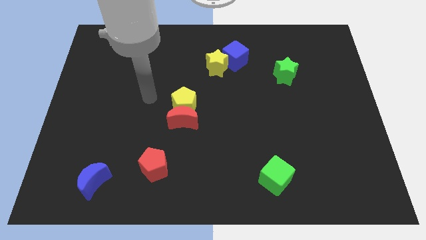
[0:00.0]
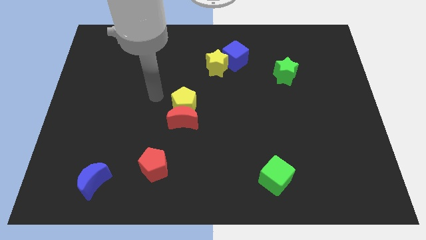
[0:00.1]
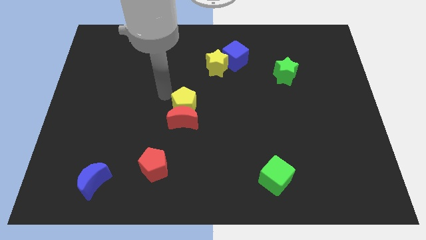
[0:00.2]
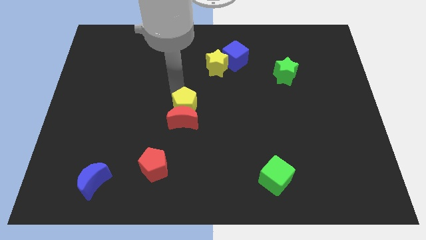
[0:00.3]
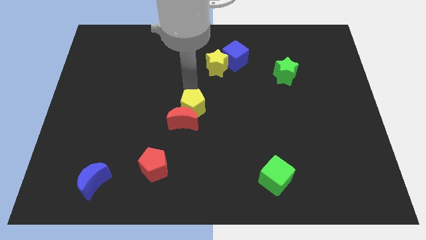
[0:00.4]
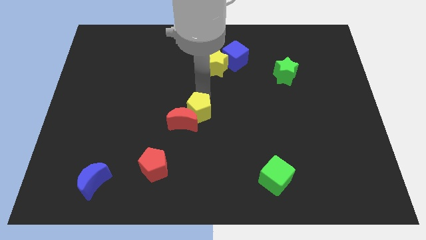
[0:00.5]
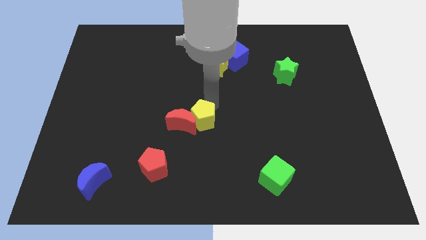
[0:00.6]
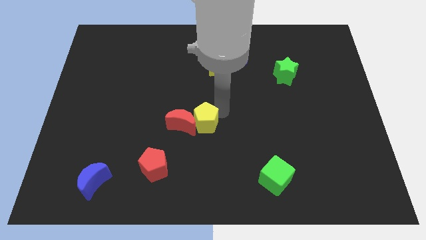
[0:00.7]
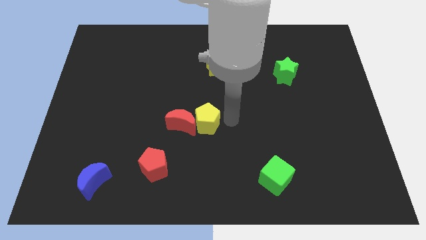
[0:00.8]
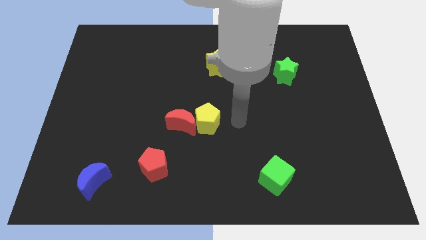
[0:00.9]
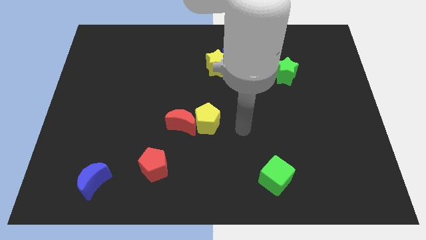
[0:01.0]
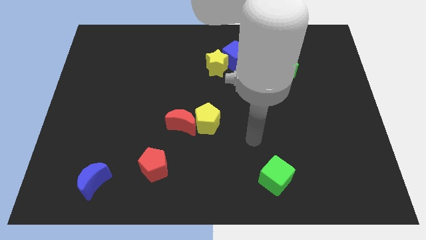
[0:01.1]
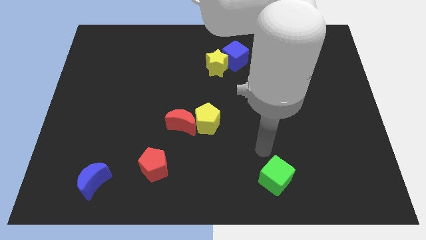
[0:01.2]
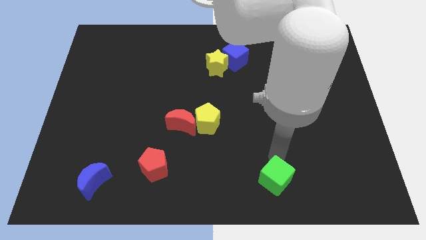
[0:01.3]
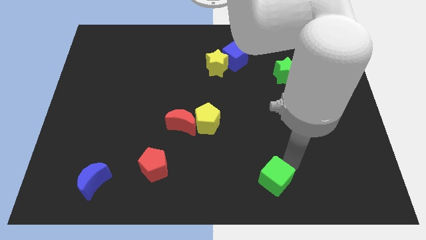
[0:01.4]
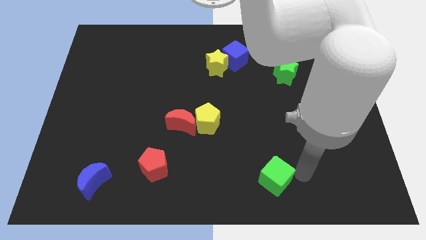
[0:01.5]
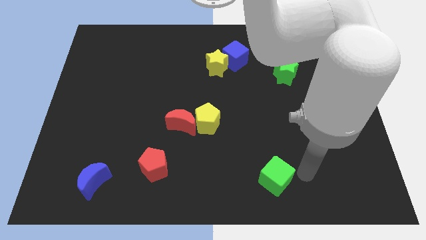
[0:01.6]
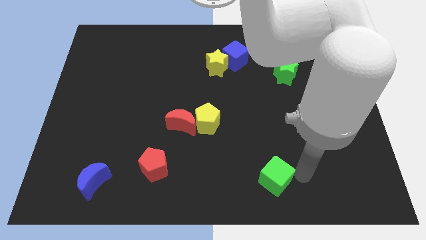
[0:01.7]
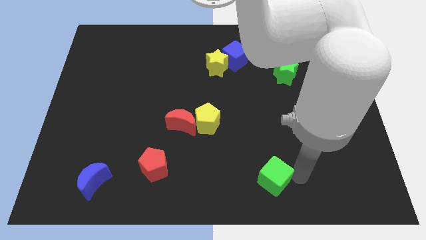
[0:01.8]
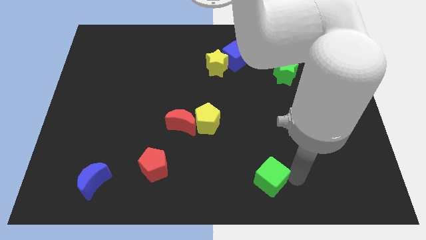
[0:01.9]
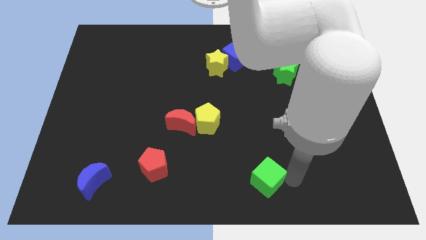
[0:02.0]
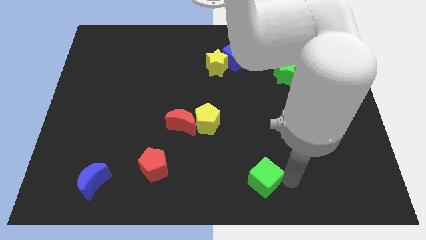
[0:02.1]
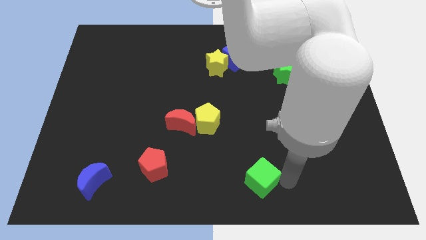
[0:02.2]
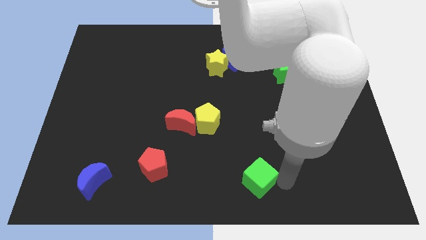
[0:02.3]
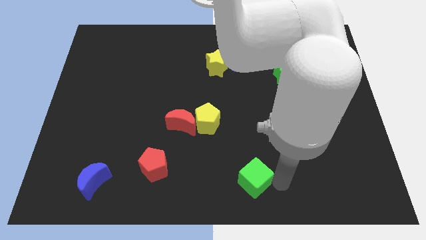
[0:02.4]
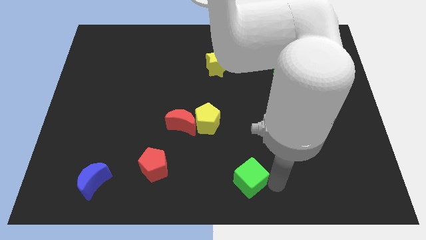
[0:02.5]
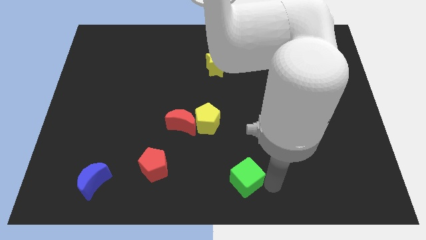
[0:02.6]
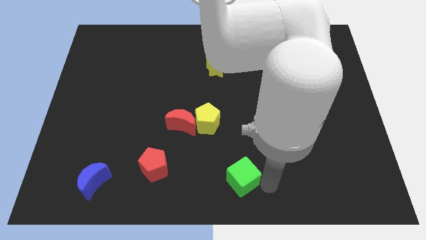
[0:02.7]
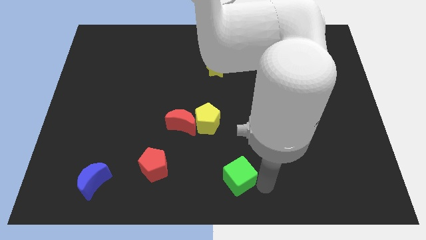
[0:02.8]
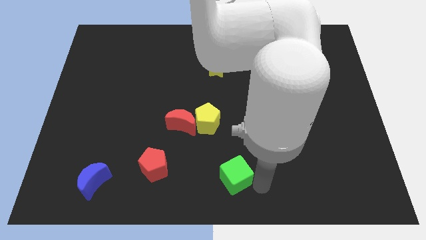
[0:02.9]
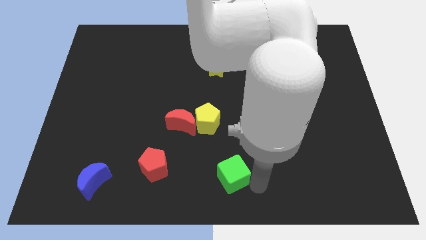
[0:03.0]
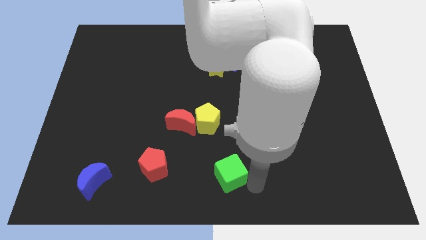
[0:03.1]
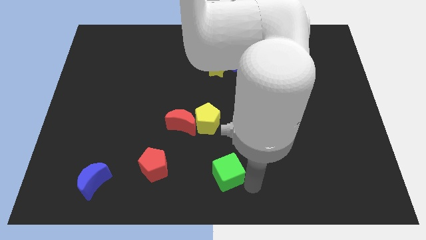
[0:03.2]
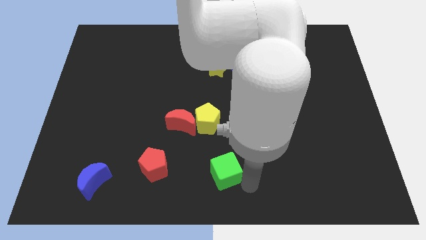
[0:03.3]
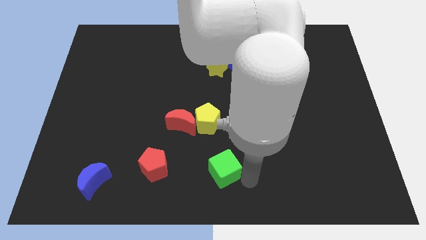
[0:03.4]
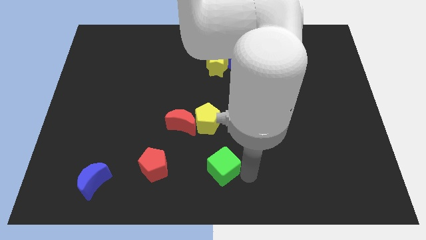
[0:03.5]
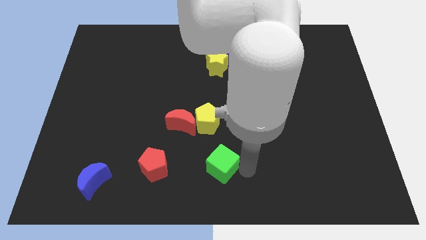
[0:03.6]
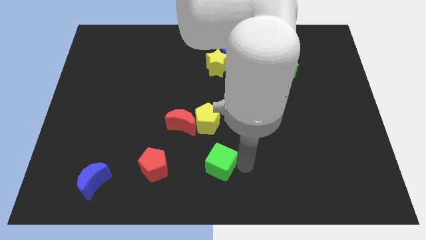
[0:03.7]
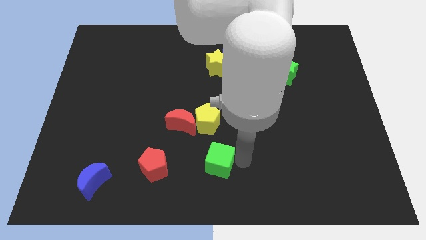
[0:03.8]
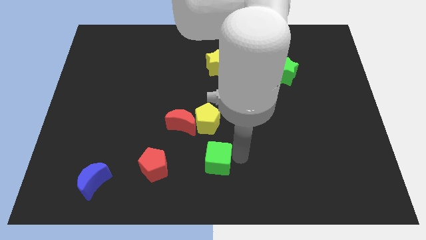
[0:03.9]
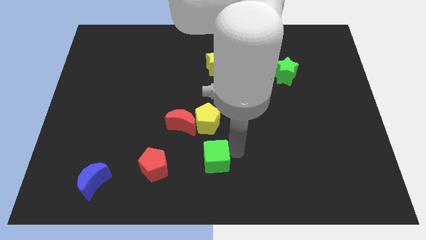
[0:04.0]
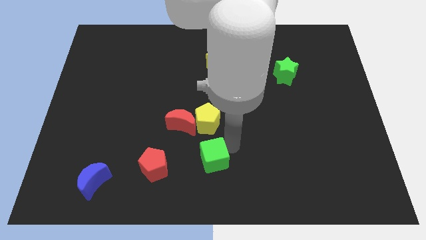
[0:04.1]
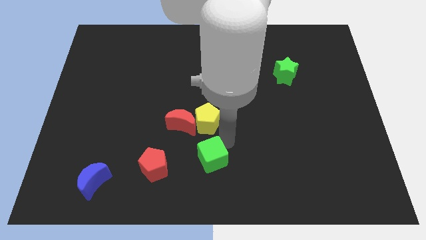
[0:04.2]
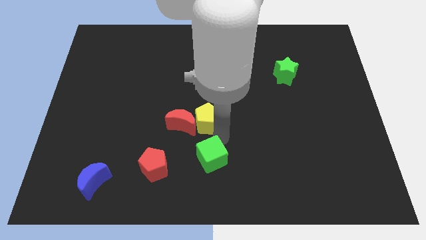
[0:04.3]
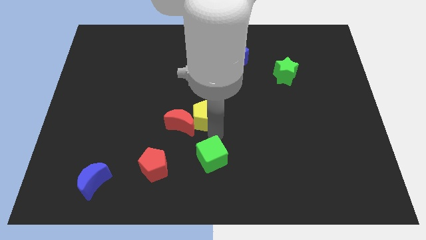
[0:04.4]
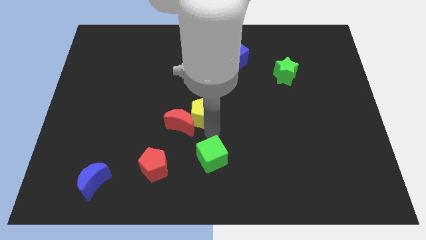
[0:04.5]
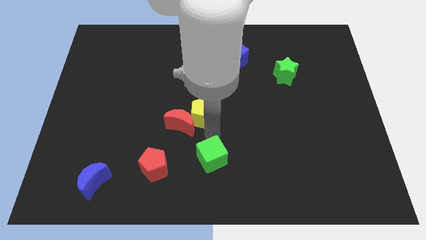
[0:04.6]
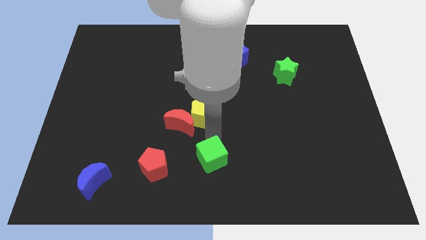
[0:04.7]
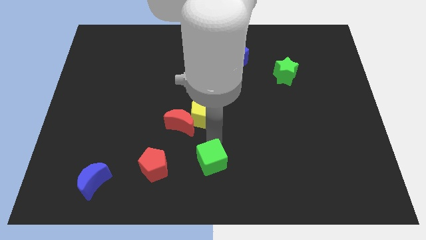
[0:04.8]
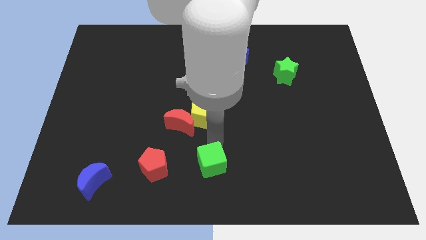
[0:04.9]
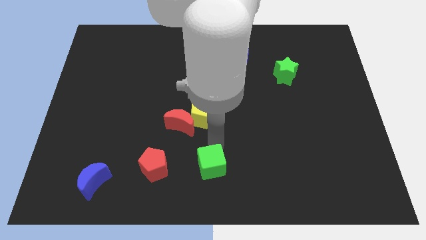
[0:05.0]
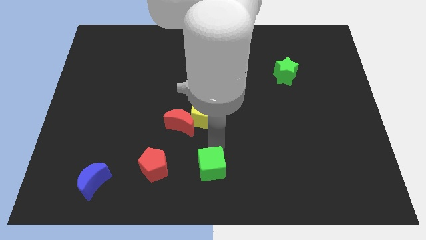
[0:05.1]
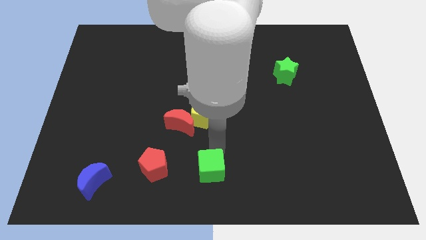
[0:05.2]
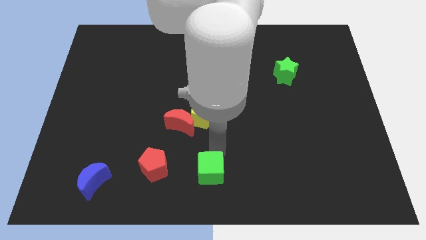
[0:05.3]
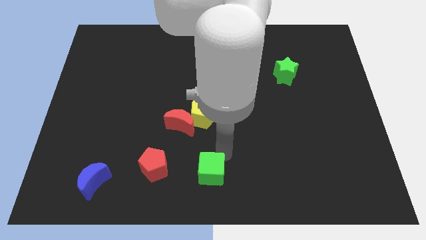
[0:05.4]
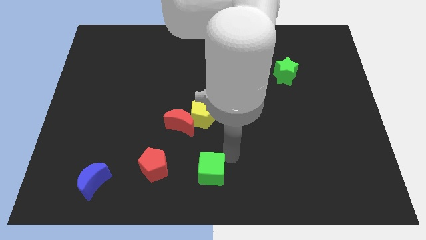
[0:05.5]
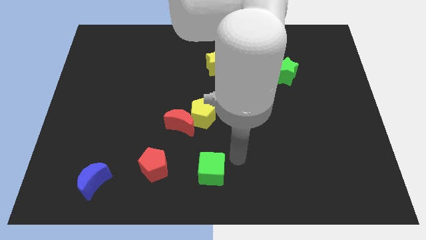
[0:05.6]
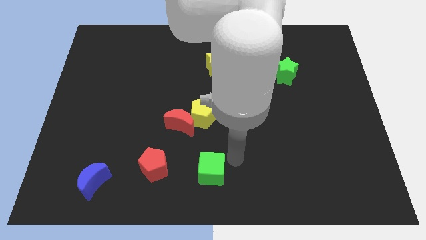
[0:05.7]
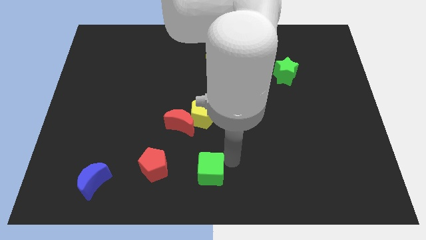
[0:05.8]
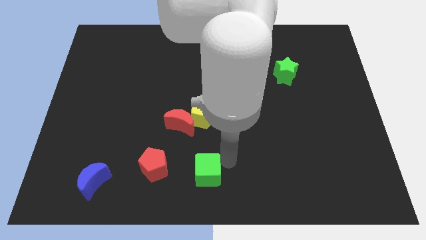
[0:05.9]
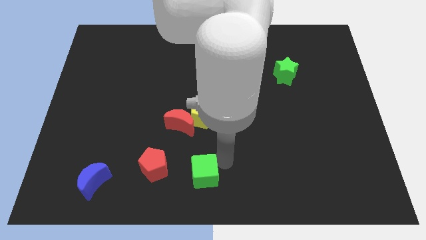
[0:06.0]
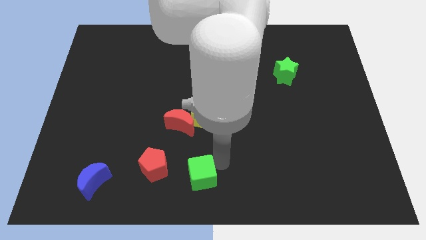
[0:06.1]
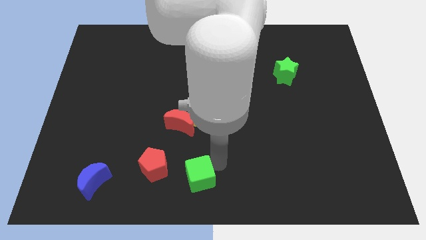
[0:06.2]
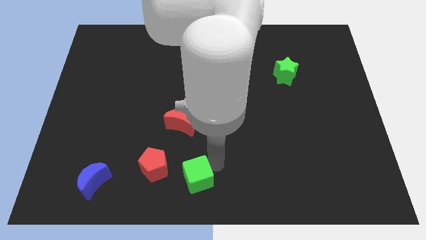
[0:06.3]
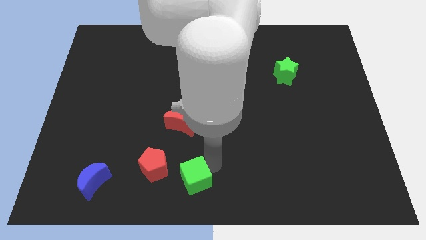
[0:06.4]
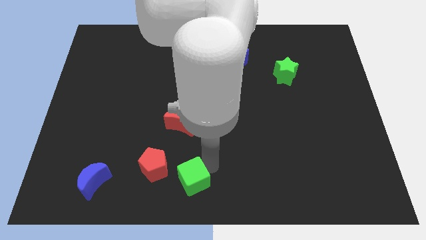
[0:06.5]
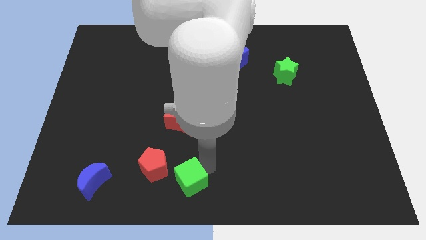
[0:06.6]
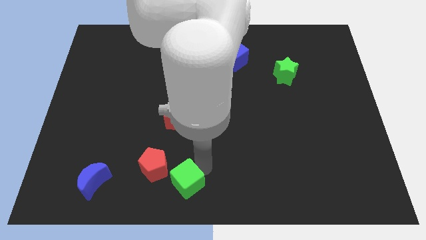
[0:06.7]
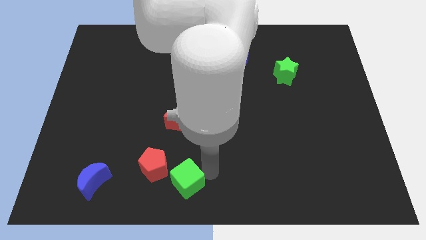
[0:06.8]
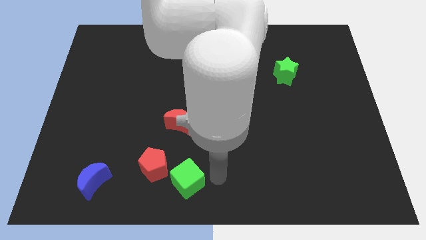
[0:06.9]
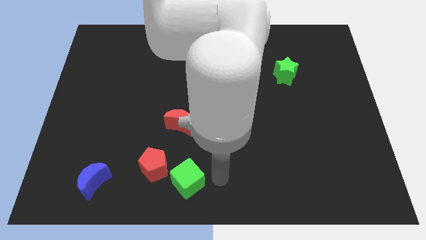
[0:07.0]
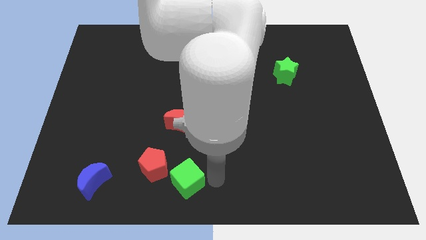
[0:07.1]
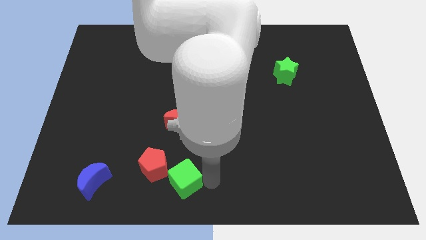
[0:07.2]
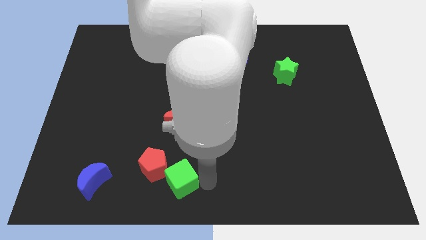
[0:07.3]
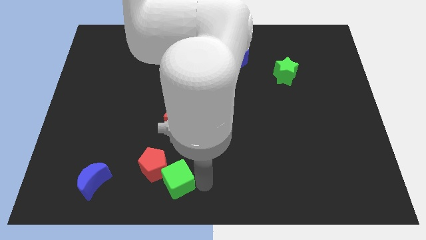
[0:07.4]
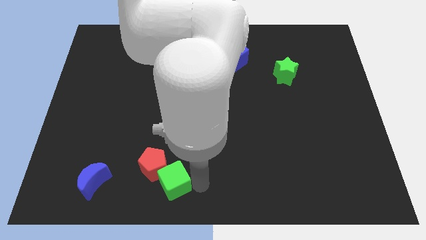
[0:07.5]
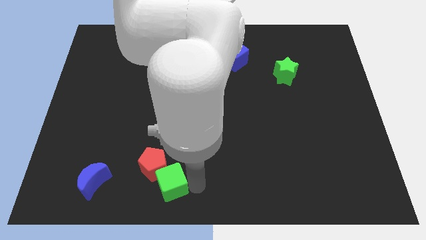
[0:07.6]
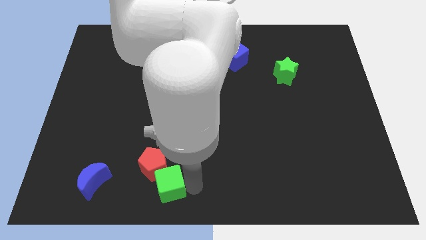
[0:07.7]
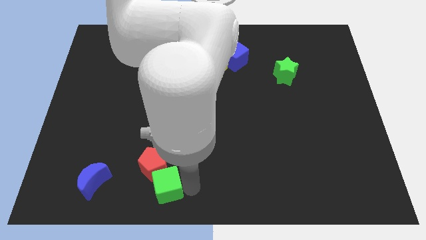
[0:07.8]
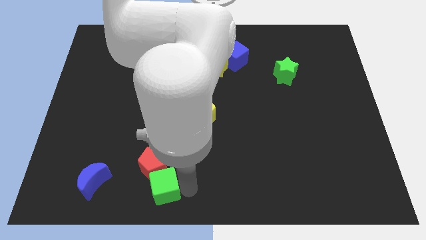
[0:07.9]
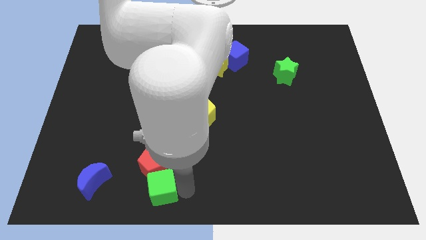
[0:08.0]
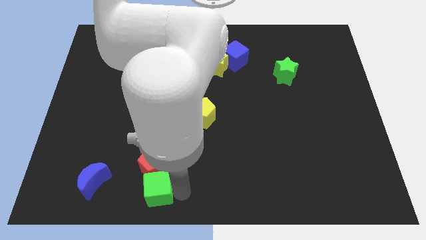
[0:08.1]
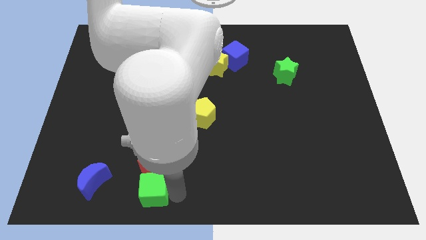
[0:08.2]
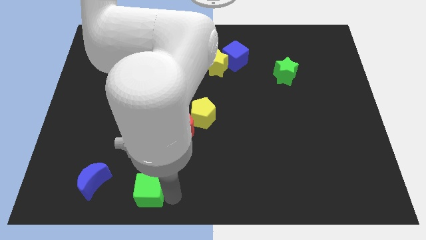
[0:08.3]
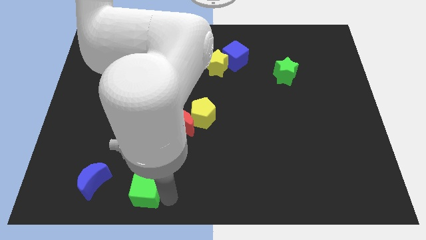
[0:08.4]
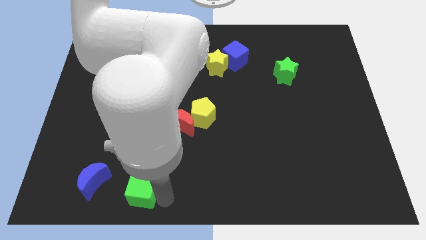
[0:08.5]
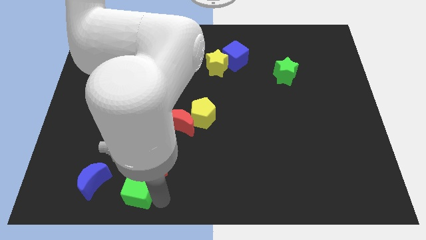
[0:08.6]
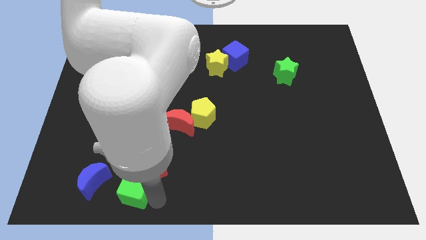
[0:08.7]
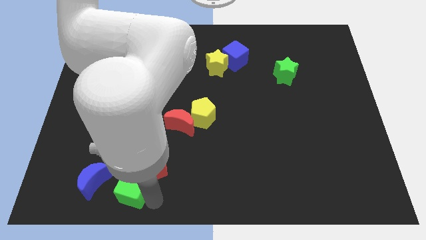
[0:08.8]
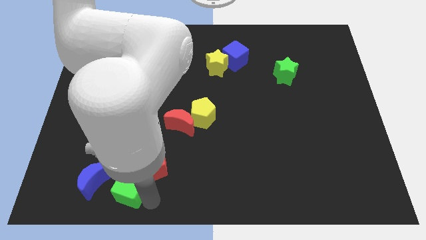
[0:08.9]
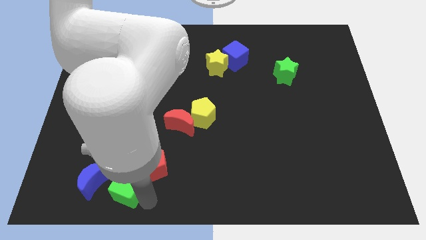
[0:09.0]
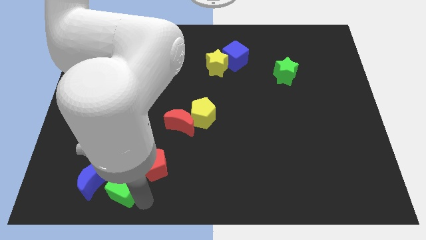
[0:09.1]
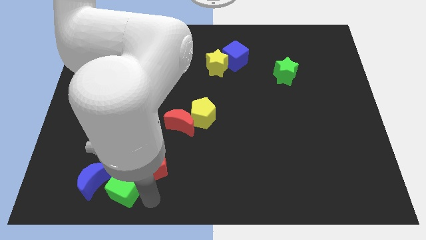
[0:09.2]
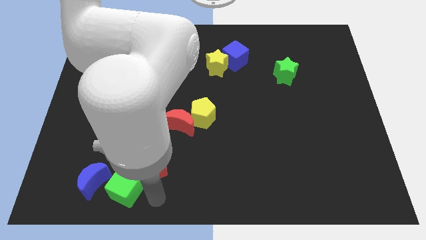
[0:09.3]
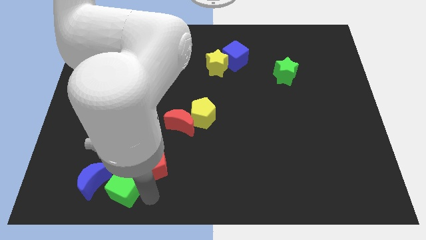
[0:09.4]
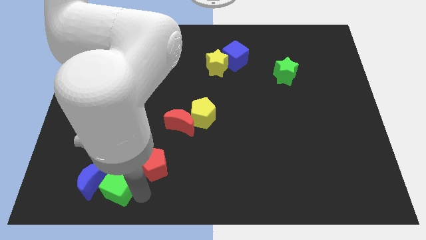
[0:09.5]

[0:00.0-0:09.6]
put the green cube close to the blue moon
